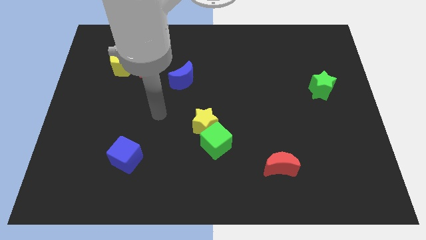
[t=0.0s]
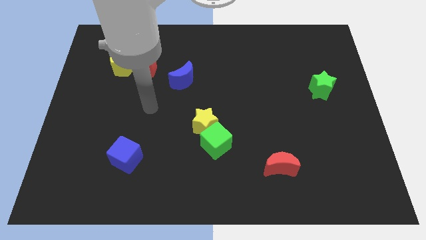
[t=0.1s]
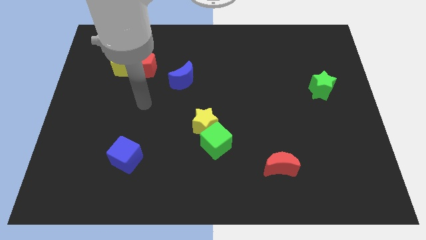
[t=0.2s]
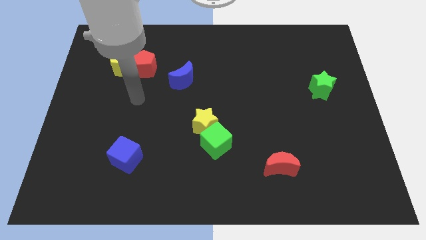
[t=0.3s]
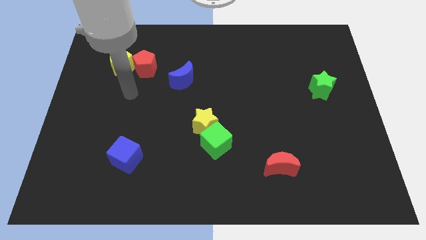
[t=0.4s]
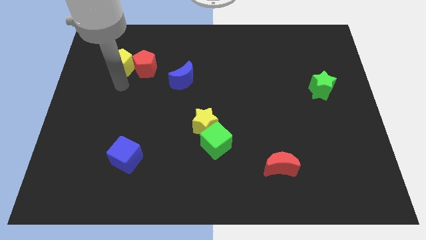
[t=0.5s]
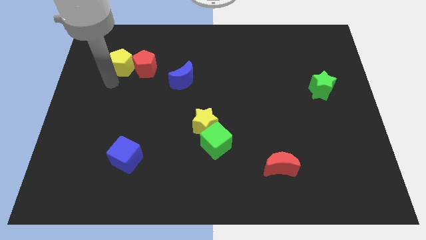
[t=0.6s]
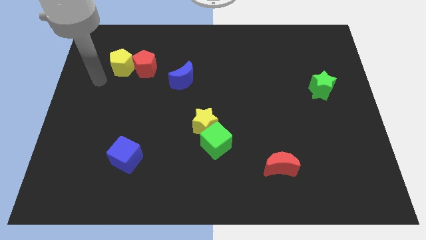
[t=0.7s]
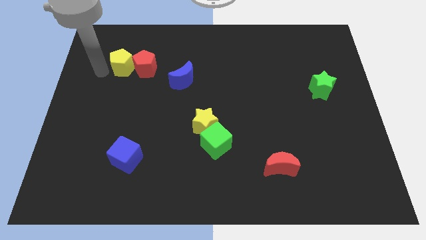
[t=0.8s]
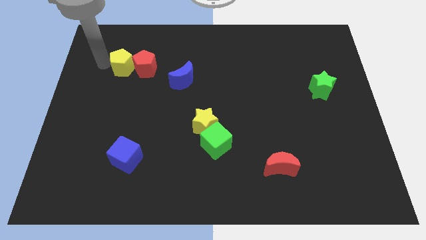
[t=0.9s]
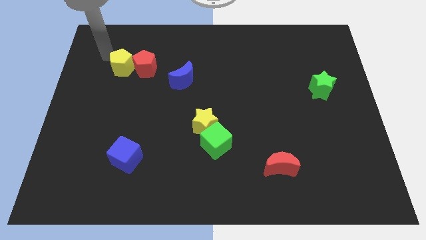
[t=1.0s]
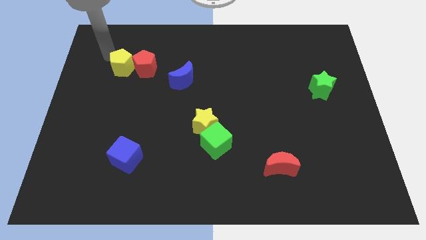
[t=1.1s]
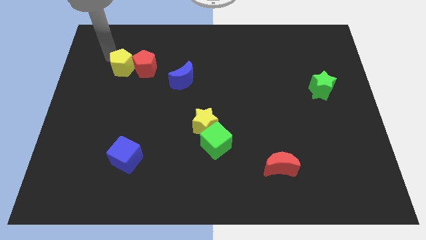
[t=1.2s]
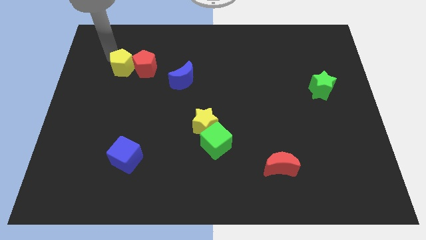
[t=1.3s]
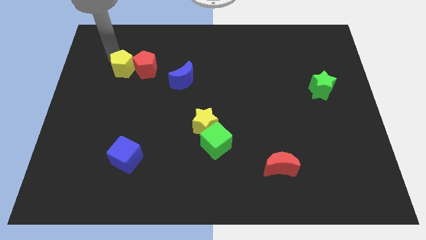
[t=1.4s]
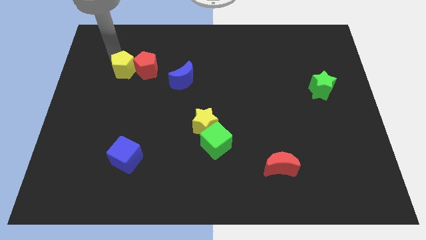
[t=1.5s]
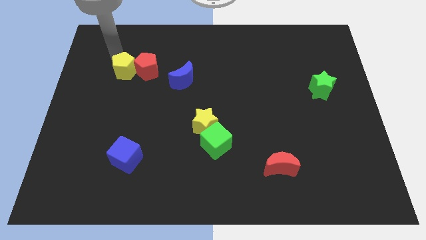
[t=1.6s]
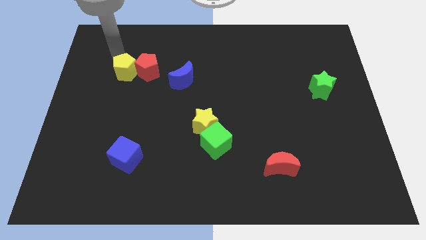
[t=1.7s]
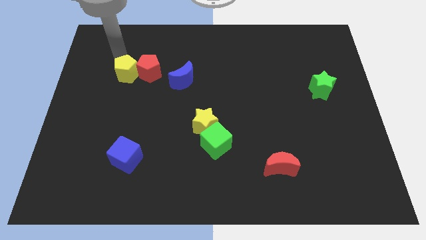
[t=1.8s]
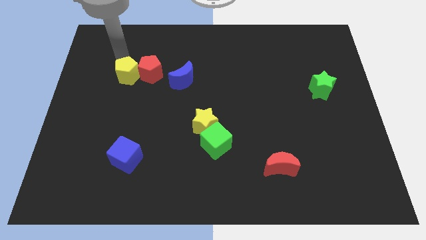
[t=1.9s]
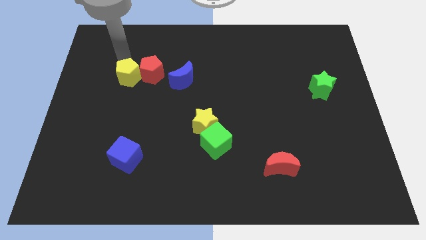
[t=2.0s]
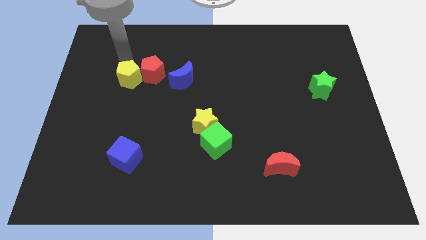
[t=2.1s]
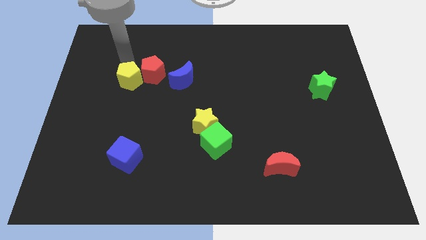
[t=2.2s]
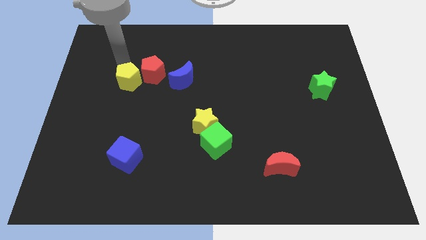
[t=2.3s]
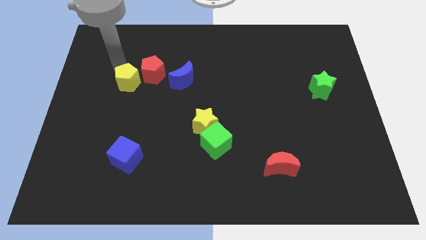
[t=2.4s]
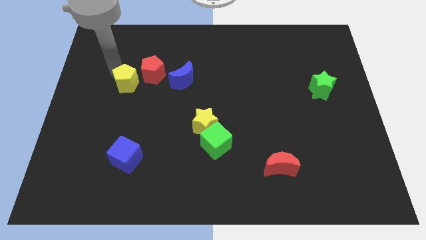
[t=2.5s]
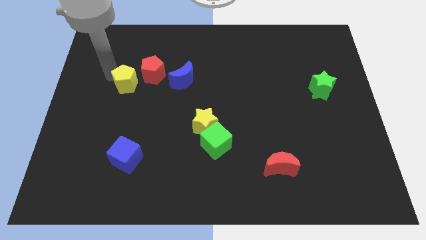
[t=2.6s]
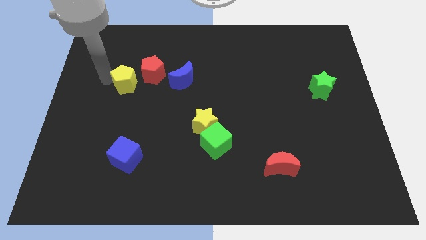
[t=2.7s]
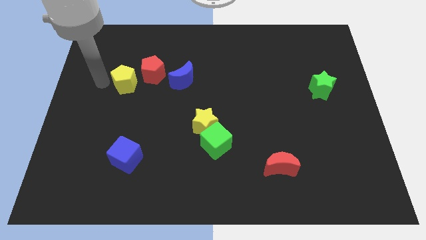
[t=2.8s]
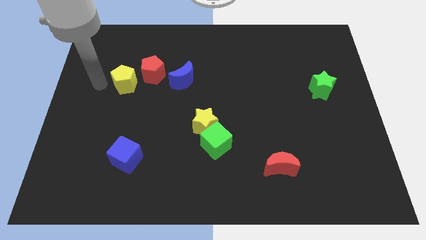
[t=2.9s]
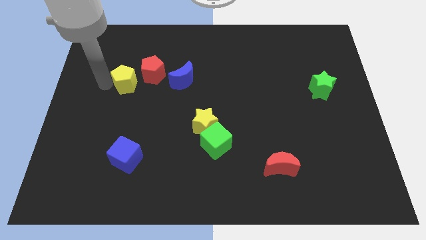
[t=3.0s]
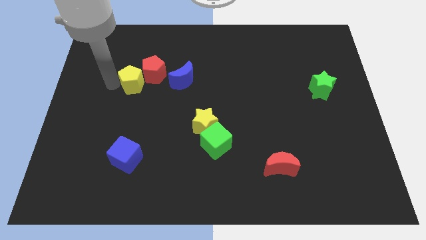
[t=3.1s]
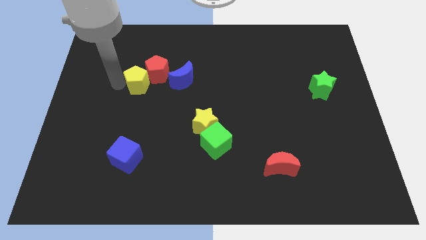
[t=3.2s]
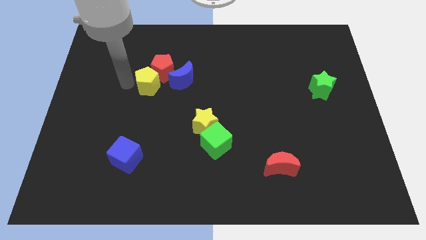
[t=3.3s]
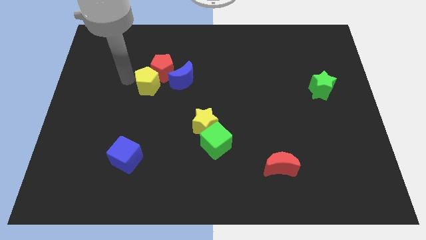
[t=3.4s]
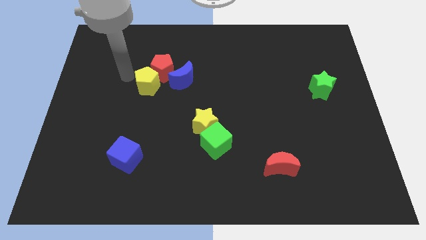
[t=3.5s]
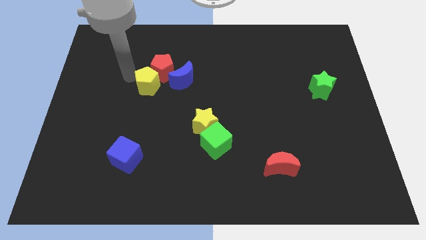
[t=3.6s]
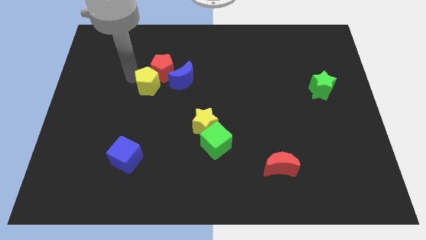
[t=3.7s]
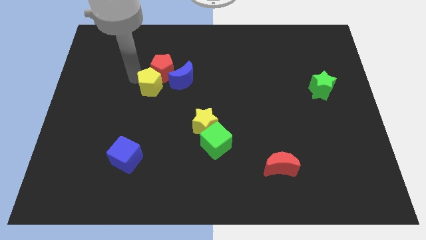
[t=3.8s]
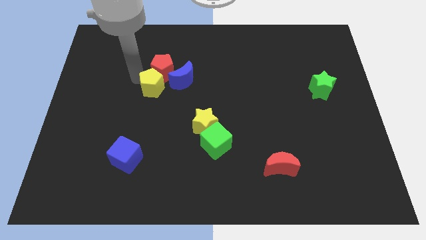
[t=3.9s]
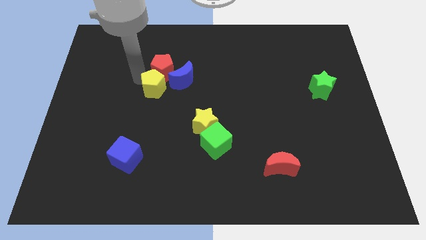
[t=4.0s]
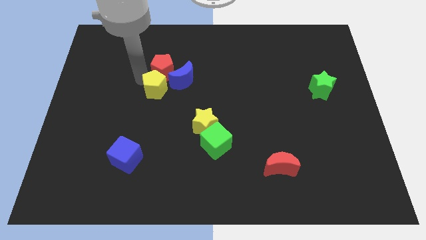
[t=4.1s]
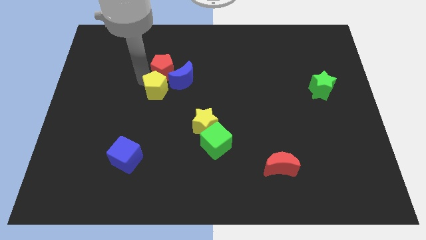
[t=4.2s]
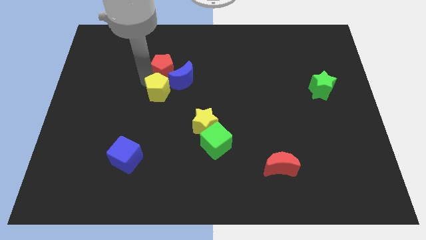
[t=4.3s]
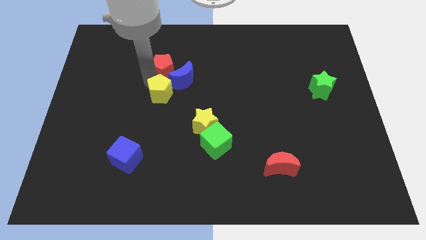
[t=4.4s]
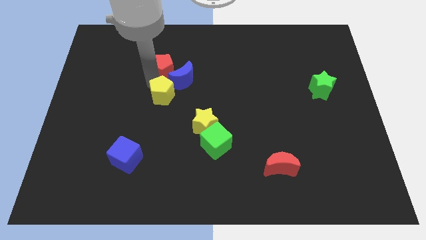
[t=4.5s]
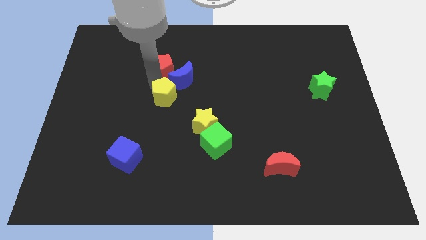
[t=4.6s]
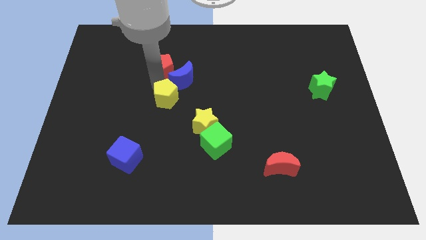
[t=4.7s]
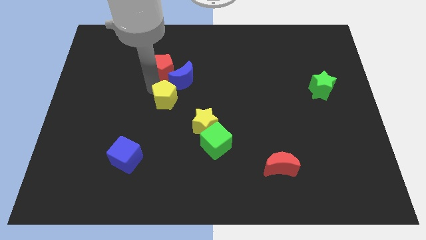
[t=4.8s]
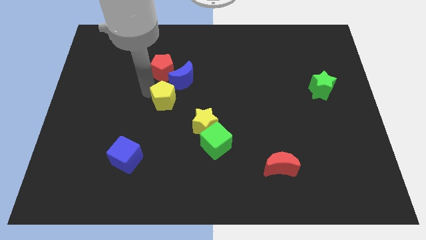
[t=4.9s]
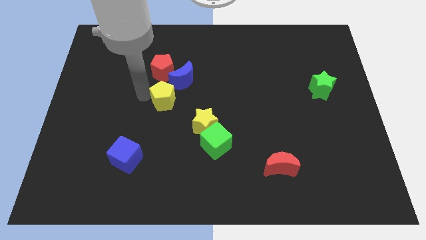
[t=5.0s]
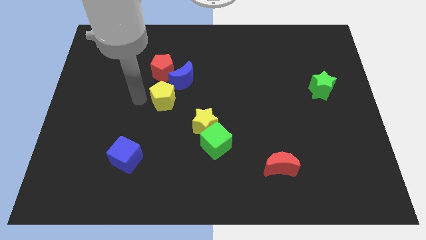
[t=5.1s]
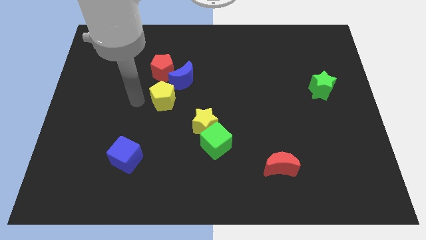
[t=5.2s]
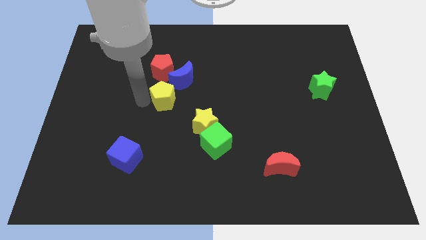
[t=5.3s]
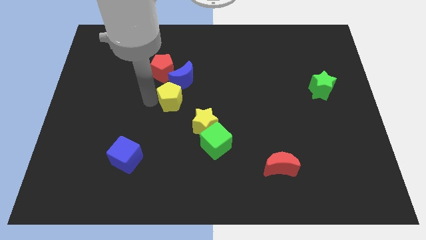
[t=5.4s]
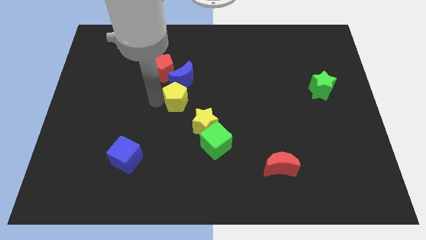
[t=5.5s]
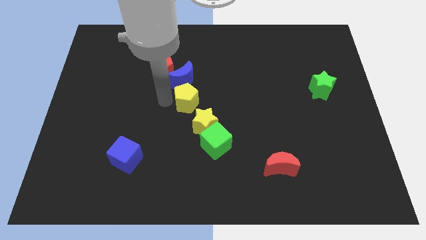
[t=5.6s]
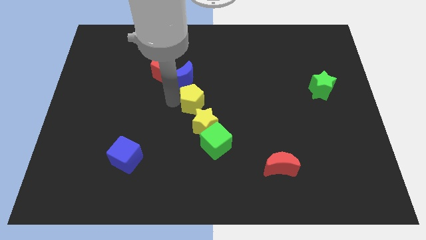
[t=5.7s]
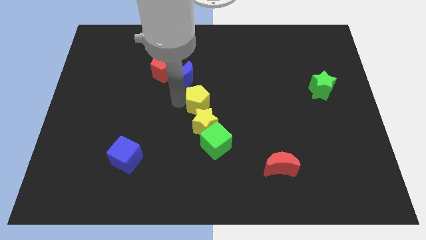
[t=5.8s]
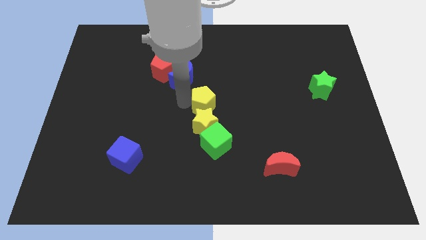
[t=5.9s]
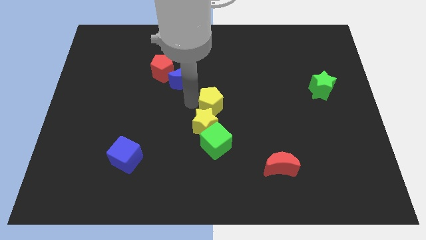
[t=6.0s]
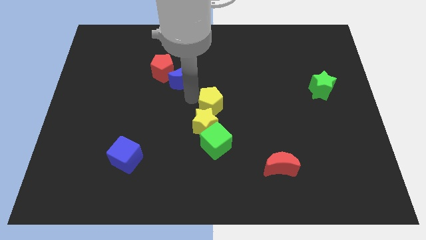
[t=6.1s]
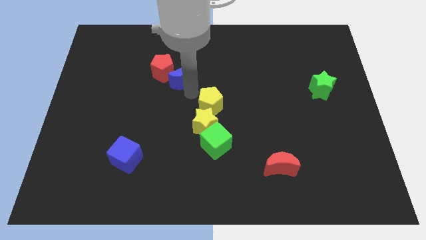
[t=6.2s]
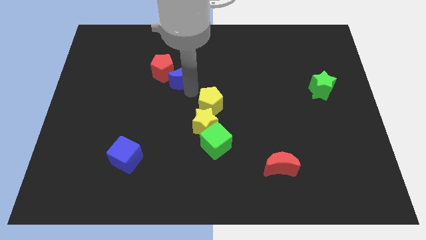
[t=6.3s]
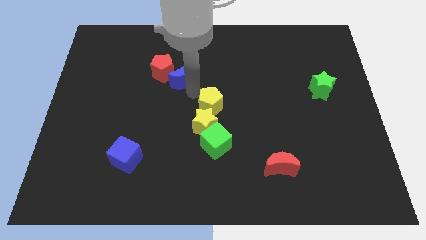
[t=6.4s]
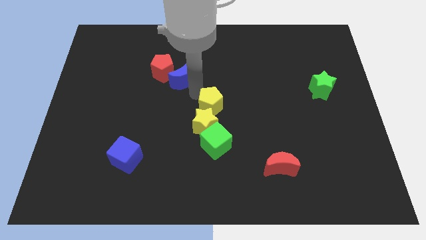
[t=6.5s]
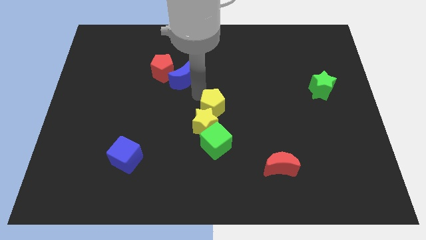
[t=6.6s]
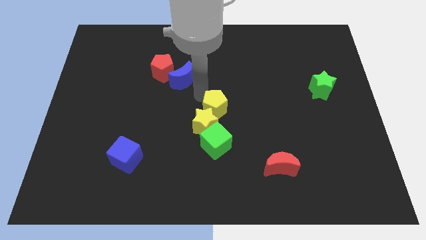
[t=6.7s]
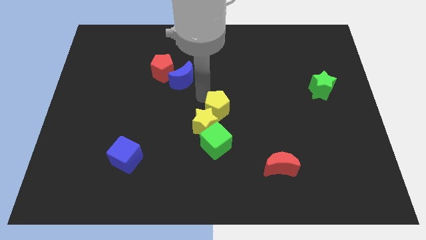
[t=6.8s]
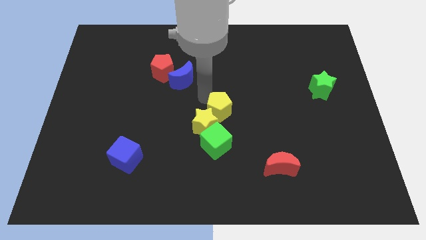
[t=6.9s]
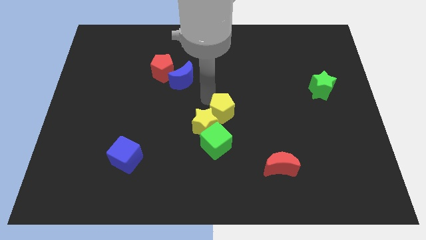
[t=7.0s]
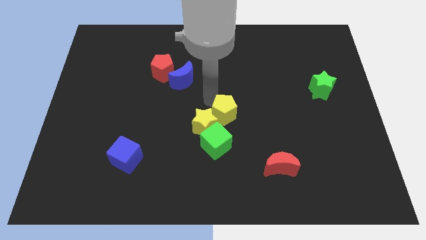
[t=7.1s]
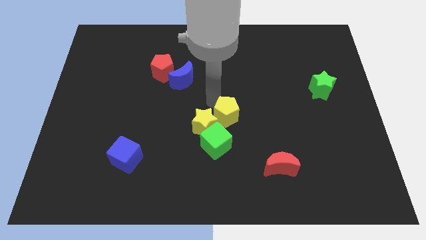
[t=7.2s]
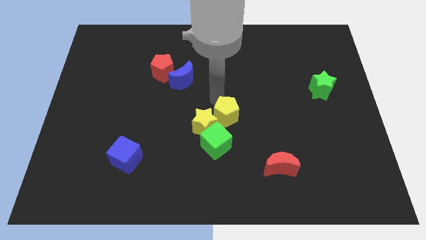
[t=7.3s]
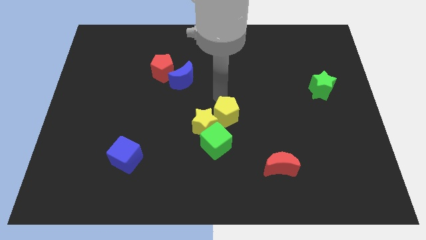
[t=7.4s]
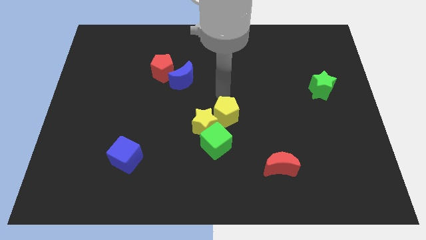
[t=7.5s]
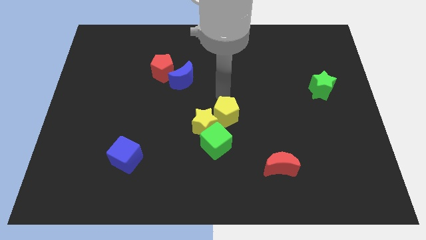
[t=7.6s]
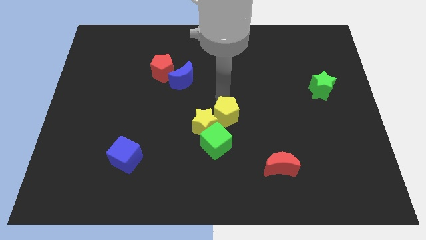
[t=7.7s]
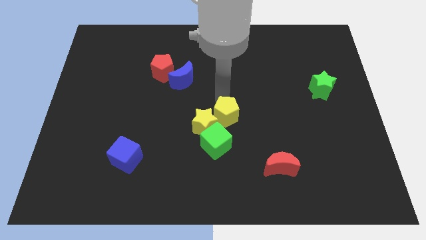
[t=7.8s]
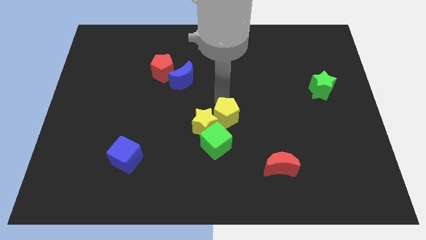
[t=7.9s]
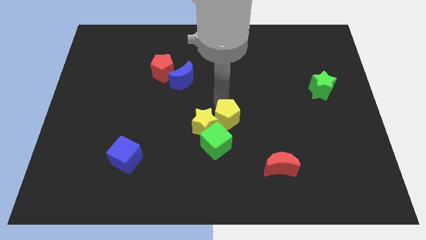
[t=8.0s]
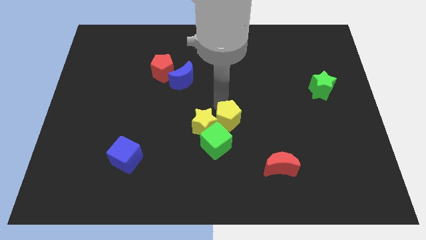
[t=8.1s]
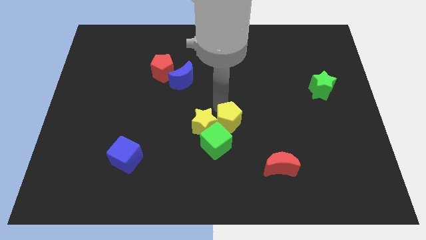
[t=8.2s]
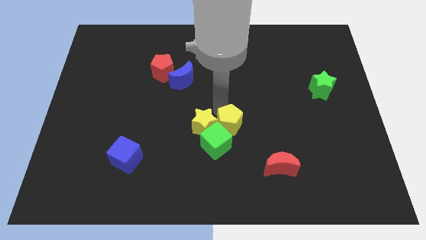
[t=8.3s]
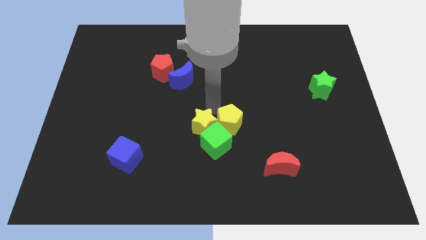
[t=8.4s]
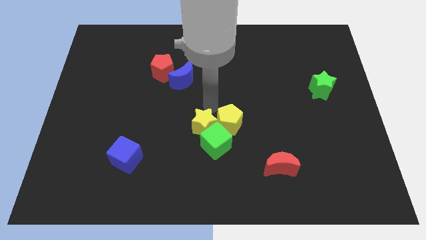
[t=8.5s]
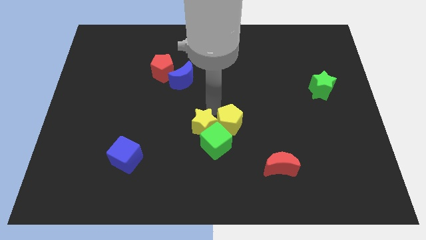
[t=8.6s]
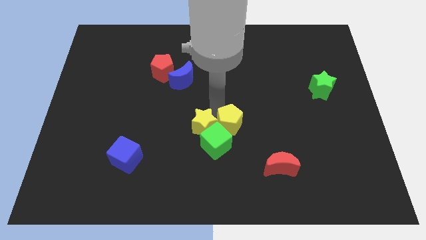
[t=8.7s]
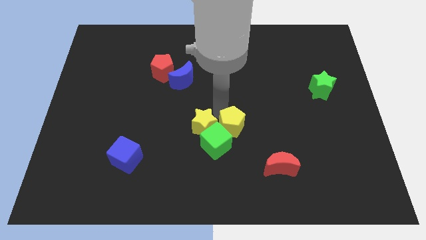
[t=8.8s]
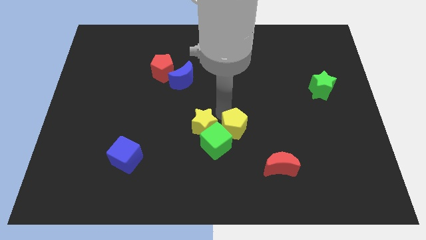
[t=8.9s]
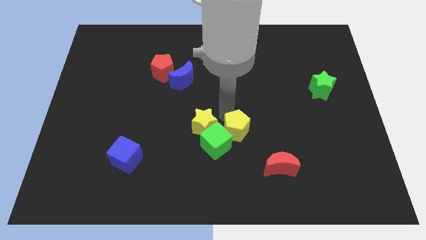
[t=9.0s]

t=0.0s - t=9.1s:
push the yellow pentagon to the top left side of the red moon
